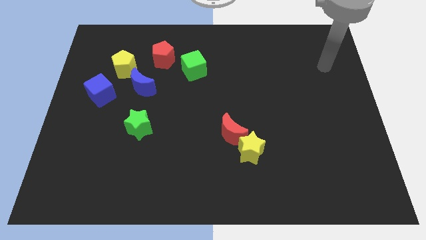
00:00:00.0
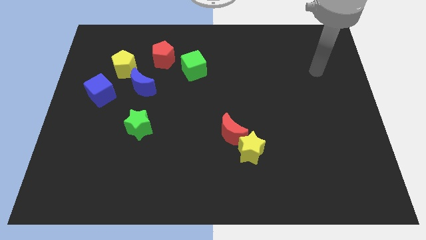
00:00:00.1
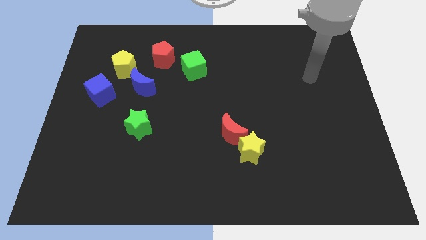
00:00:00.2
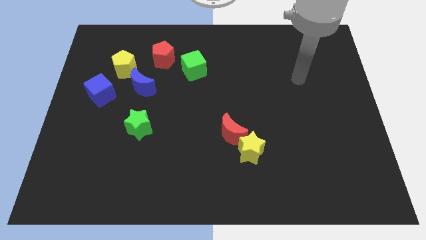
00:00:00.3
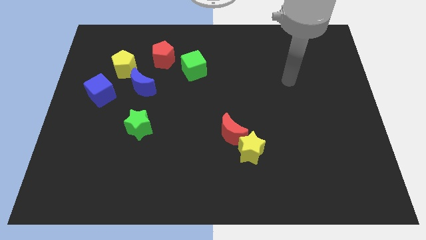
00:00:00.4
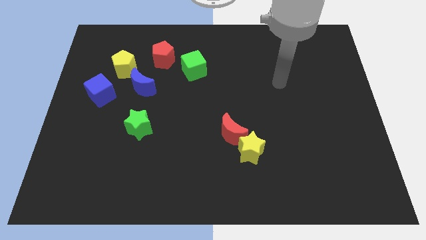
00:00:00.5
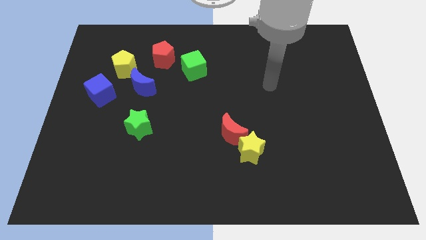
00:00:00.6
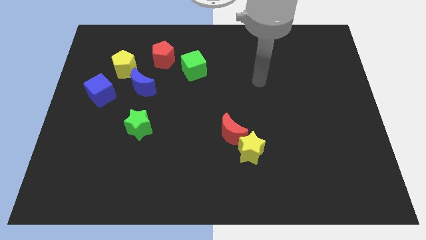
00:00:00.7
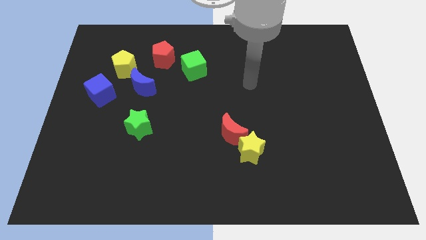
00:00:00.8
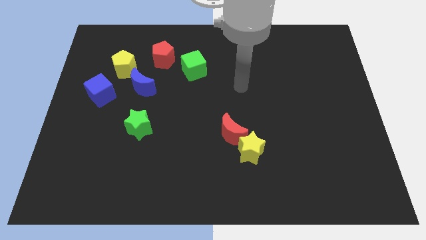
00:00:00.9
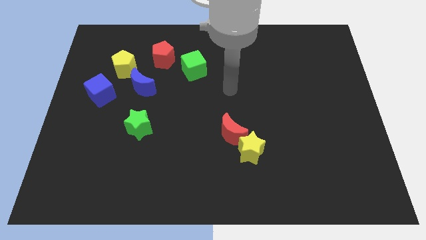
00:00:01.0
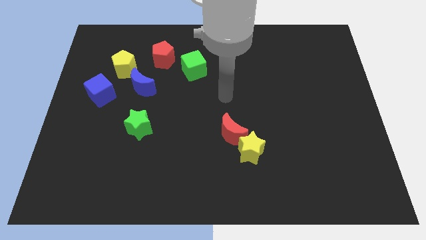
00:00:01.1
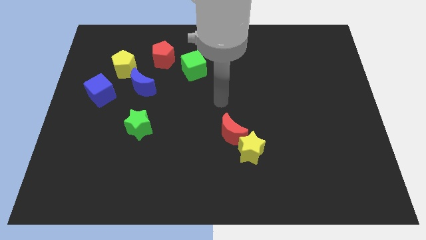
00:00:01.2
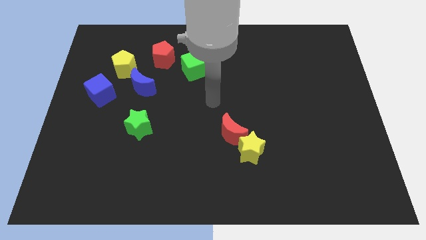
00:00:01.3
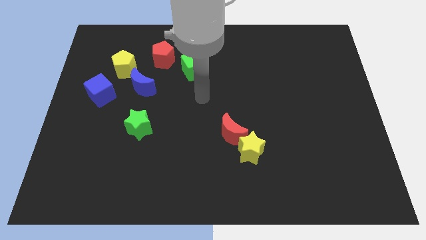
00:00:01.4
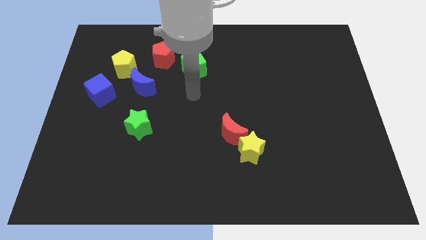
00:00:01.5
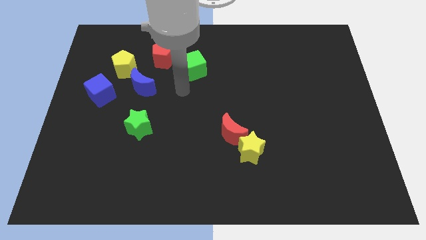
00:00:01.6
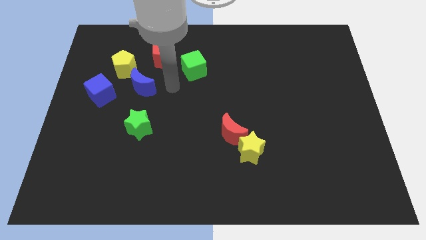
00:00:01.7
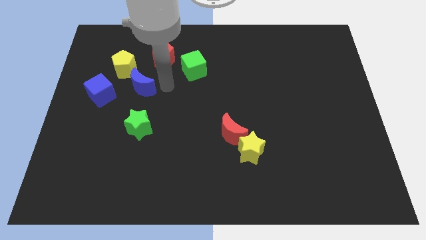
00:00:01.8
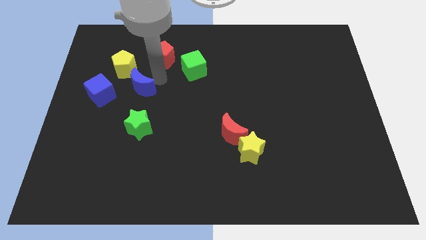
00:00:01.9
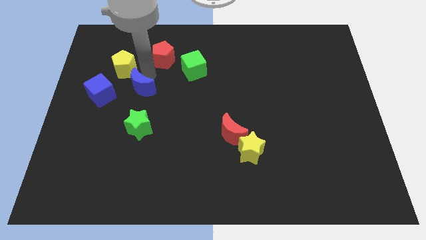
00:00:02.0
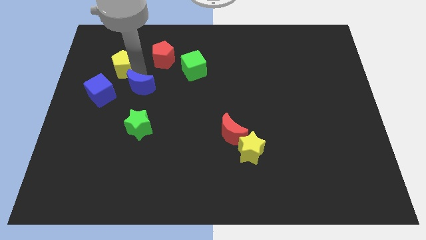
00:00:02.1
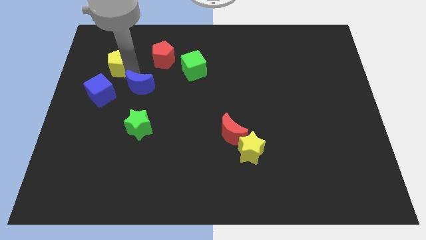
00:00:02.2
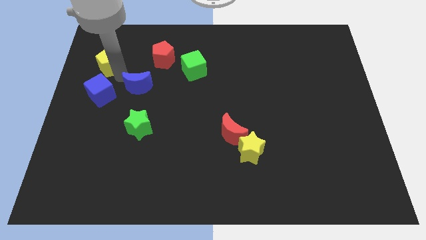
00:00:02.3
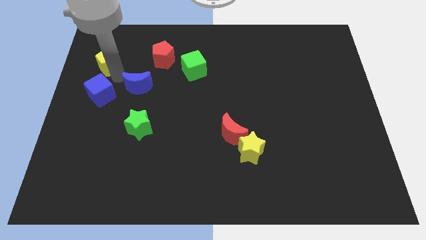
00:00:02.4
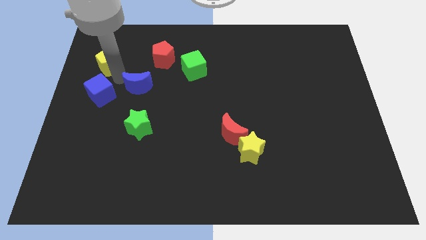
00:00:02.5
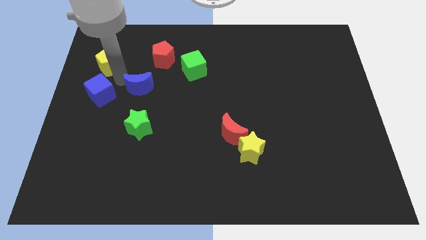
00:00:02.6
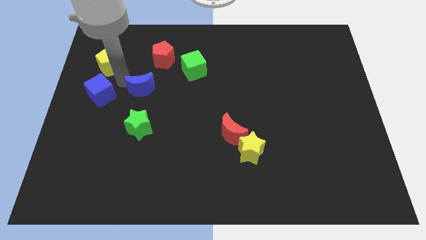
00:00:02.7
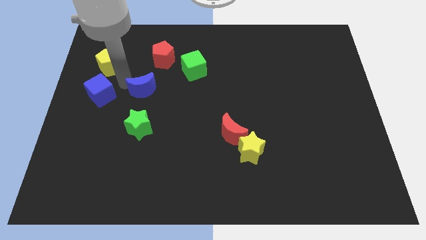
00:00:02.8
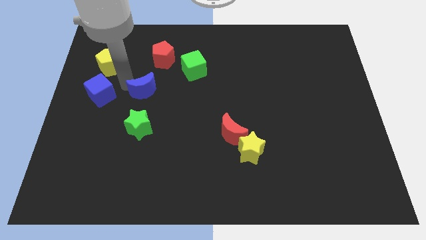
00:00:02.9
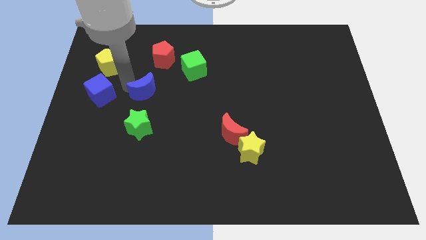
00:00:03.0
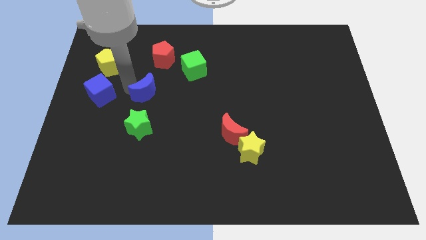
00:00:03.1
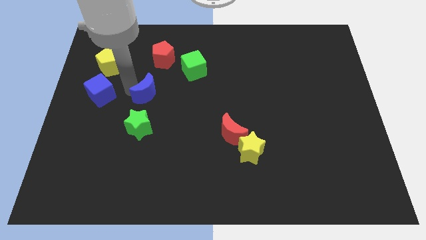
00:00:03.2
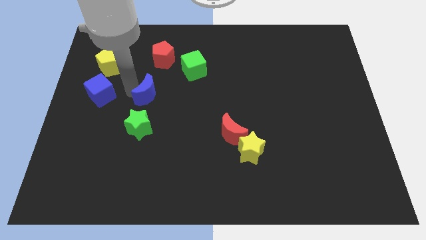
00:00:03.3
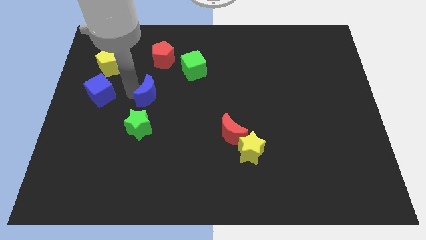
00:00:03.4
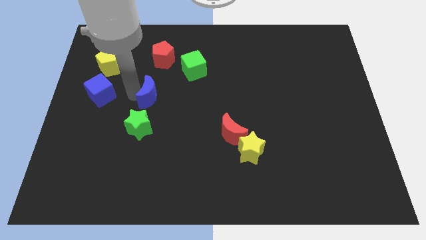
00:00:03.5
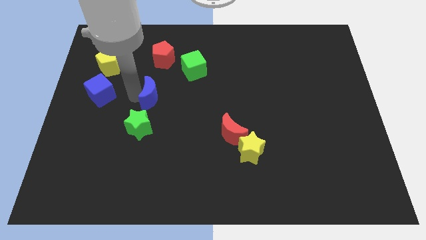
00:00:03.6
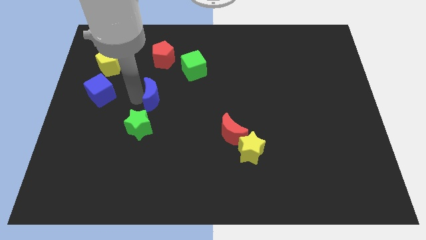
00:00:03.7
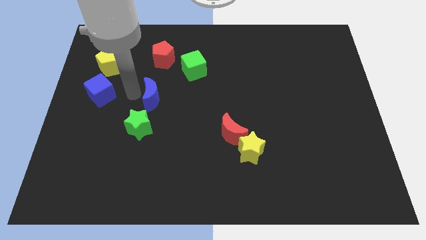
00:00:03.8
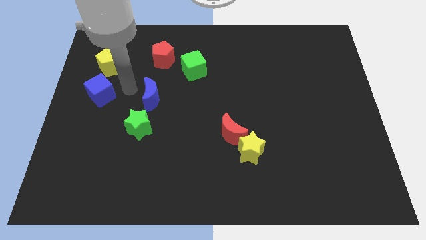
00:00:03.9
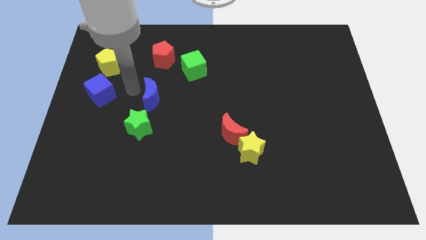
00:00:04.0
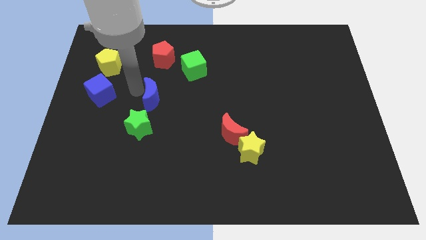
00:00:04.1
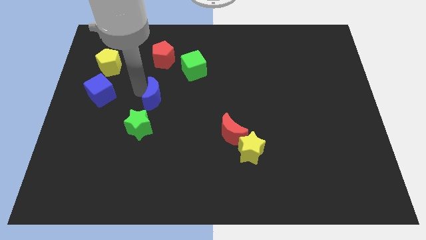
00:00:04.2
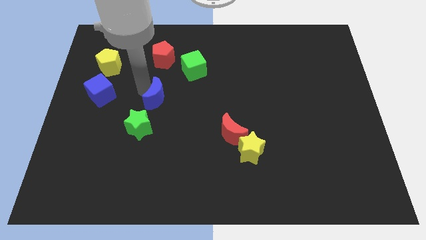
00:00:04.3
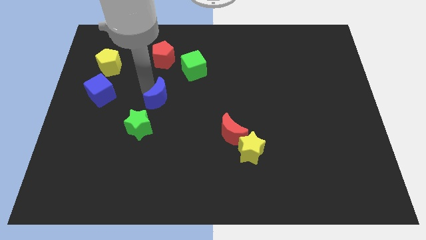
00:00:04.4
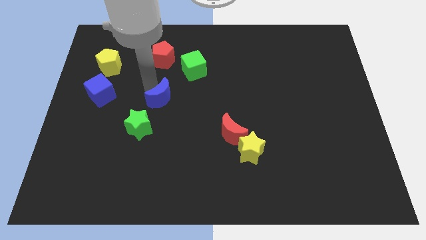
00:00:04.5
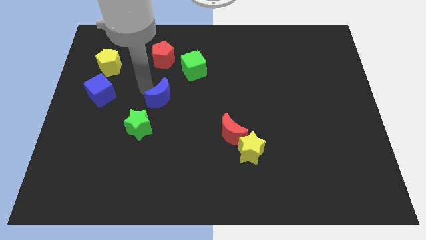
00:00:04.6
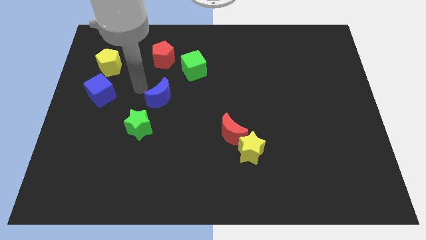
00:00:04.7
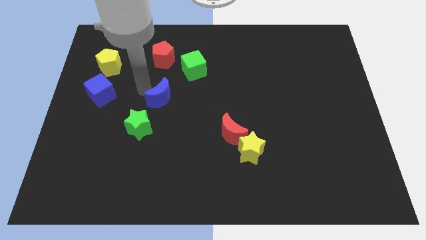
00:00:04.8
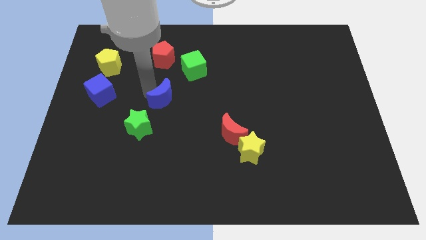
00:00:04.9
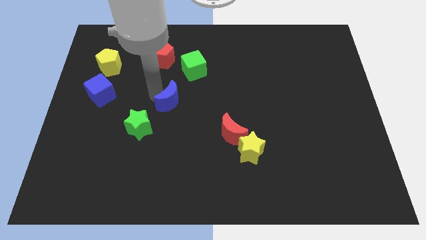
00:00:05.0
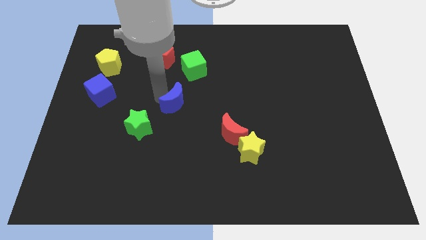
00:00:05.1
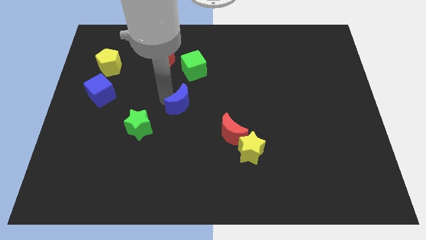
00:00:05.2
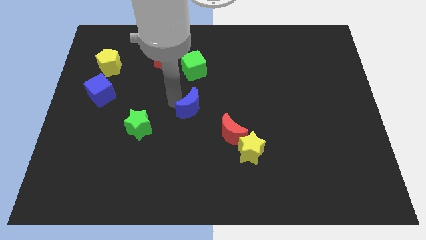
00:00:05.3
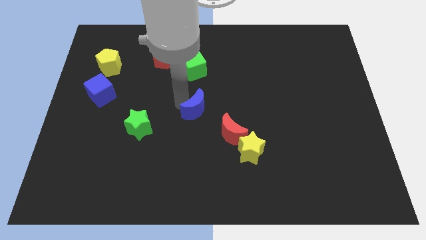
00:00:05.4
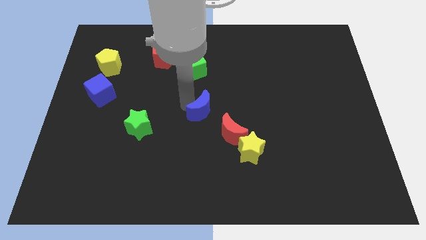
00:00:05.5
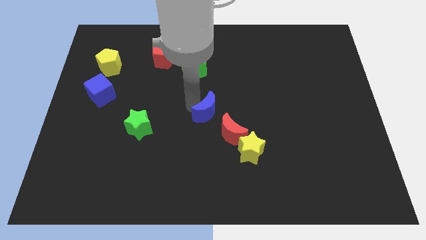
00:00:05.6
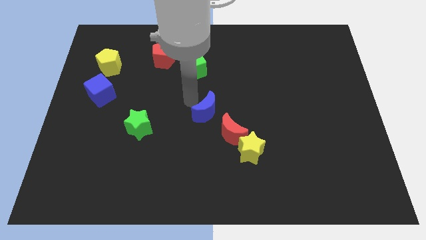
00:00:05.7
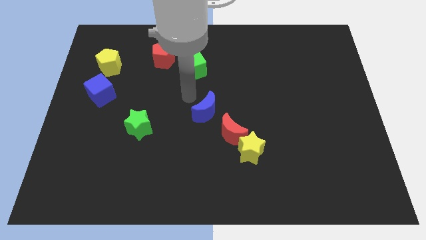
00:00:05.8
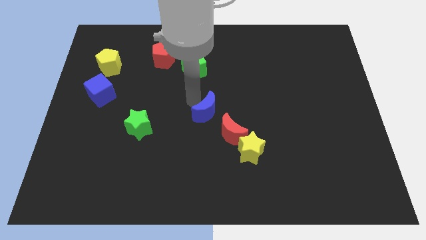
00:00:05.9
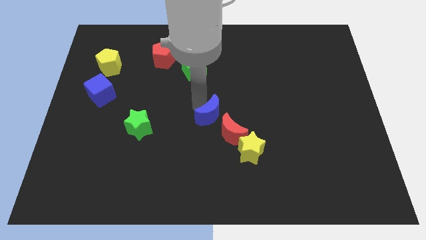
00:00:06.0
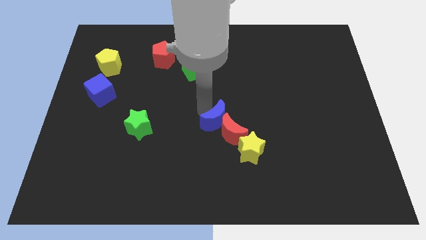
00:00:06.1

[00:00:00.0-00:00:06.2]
put the blue moon close to the red moon

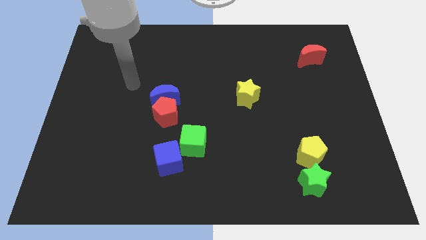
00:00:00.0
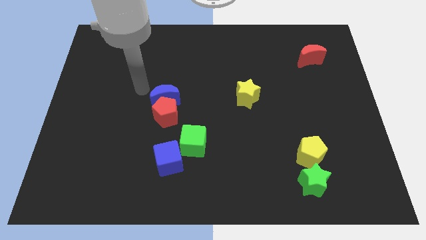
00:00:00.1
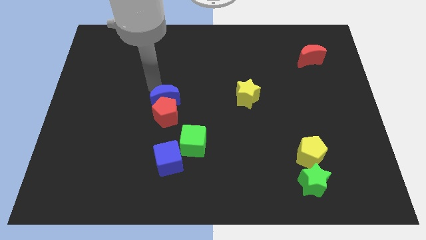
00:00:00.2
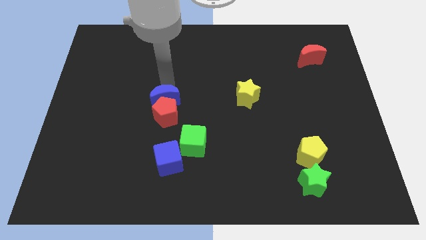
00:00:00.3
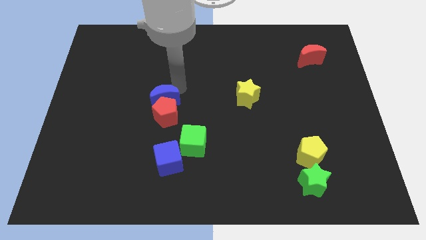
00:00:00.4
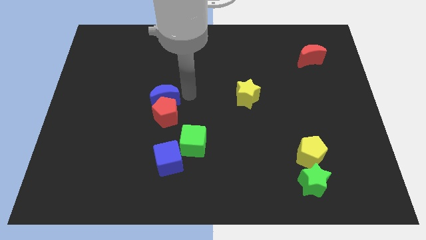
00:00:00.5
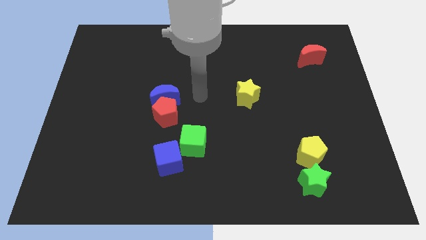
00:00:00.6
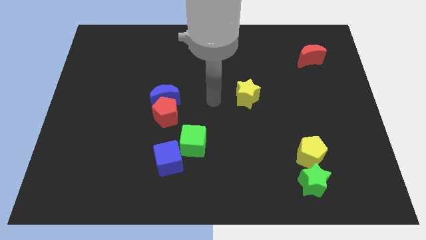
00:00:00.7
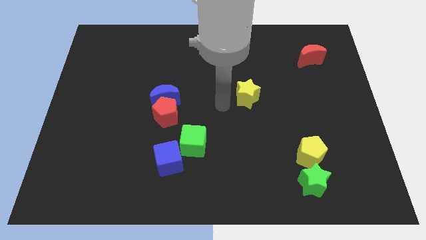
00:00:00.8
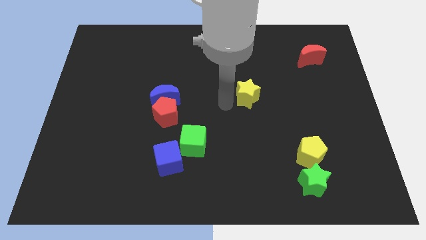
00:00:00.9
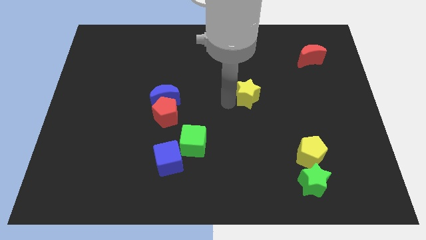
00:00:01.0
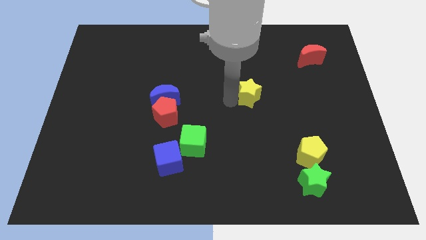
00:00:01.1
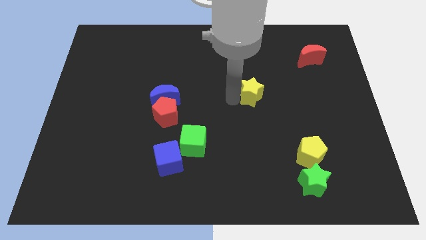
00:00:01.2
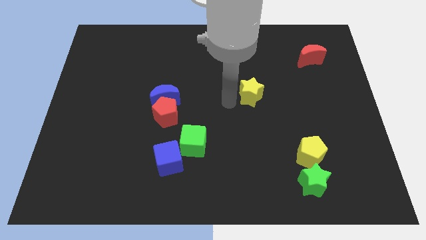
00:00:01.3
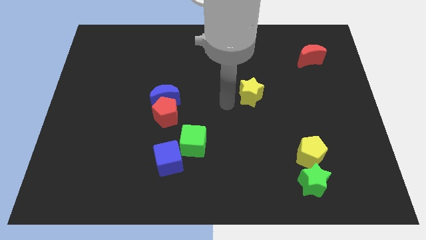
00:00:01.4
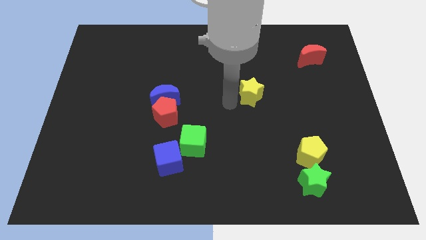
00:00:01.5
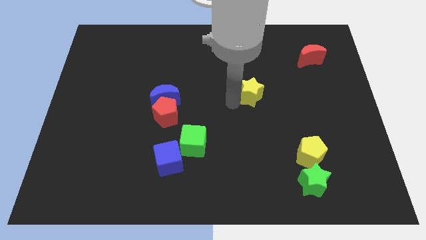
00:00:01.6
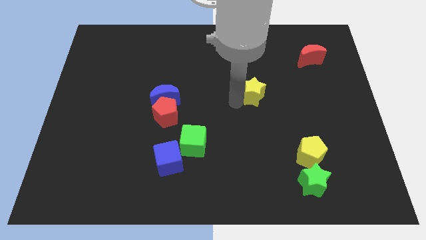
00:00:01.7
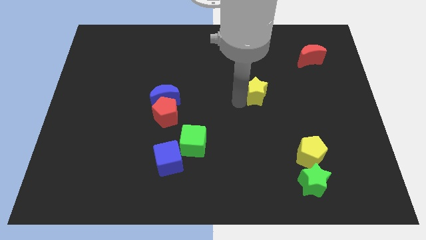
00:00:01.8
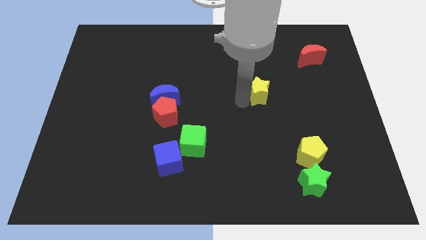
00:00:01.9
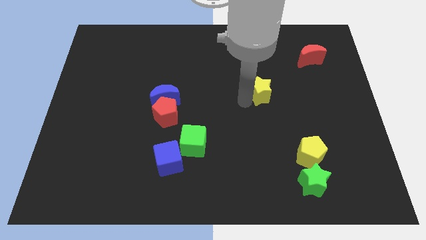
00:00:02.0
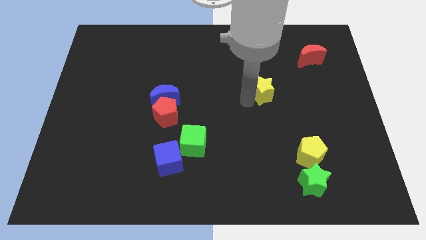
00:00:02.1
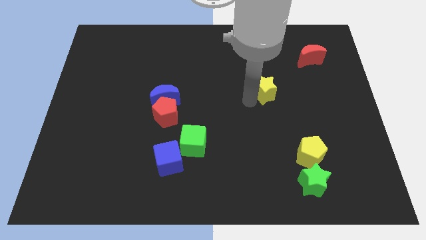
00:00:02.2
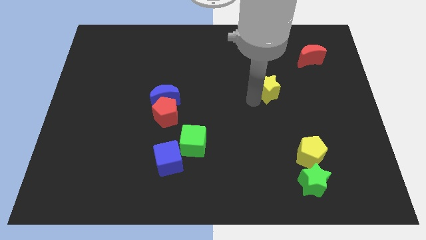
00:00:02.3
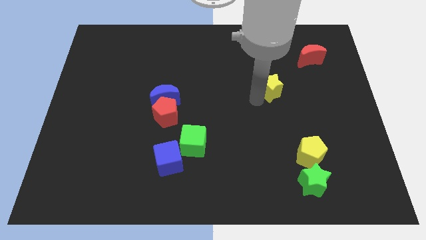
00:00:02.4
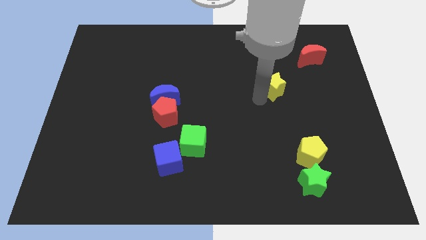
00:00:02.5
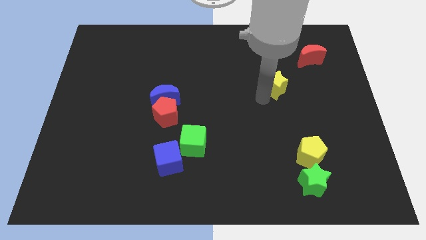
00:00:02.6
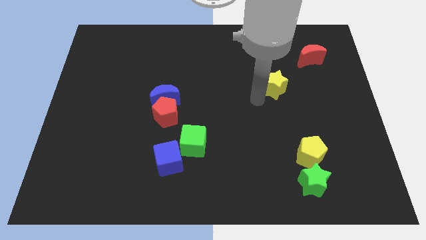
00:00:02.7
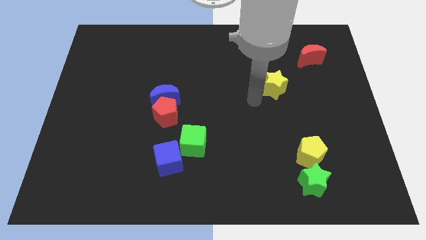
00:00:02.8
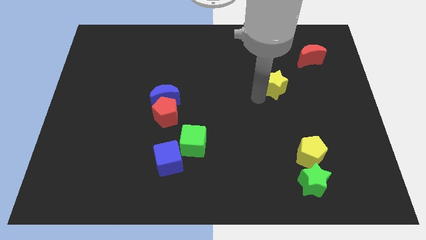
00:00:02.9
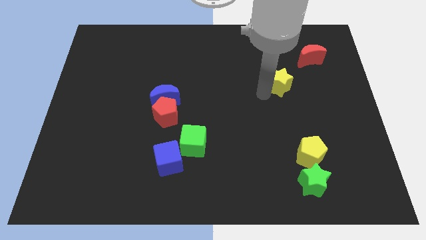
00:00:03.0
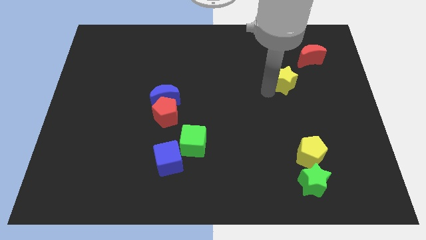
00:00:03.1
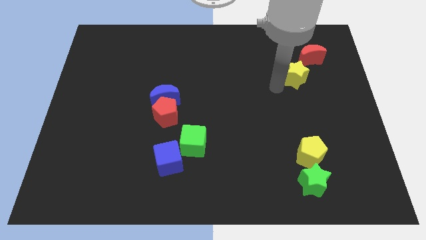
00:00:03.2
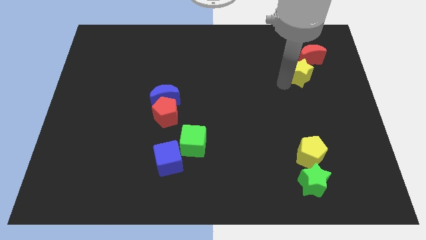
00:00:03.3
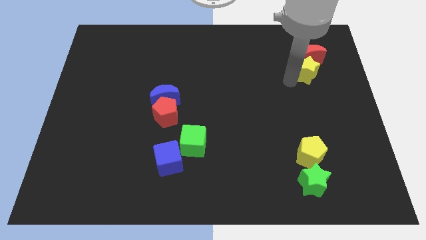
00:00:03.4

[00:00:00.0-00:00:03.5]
push the yellow star close to the red moon
